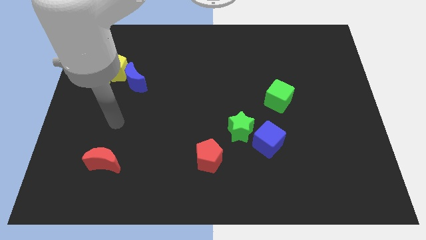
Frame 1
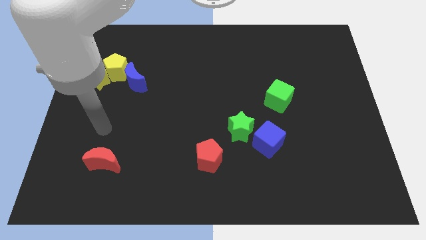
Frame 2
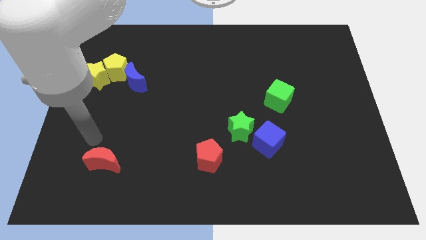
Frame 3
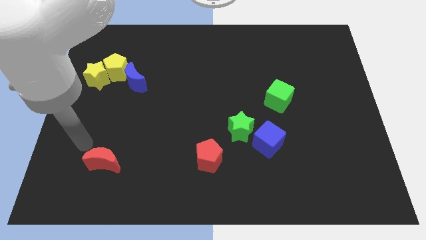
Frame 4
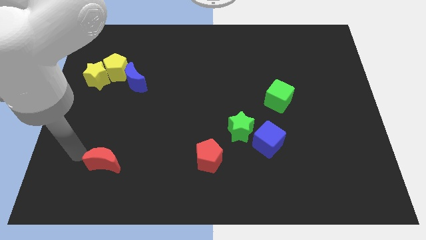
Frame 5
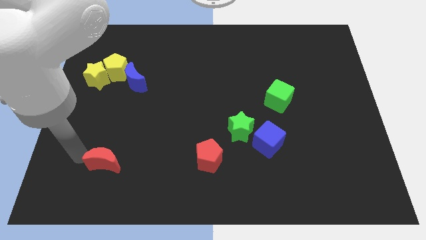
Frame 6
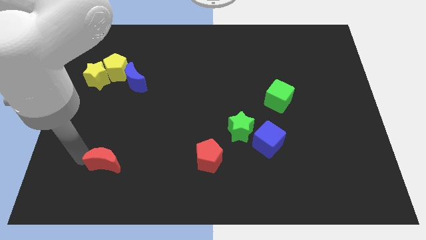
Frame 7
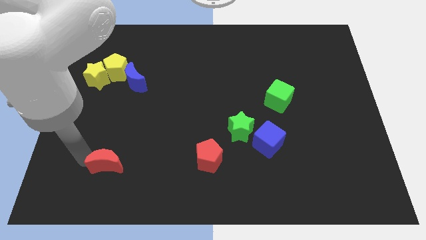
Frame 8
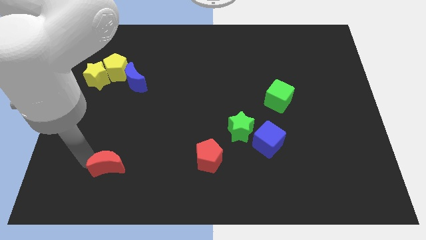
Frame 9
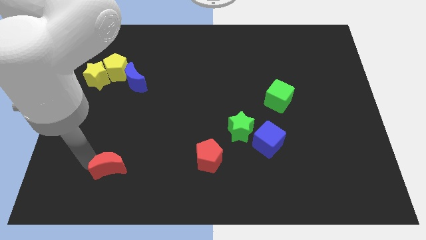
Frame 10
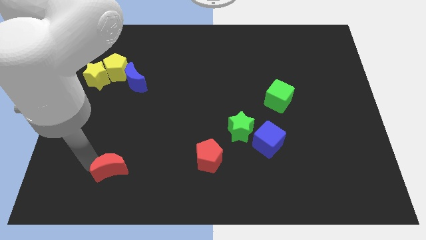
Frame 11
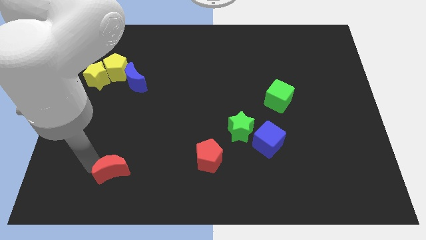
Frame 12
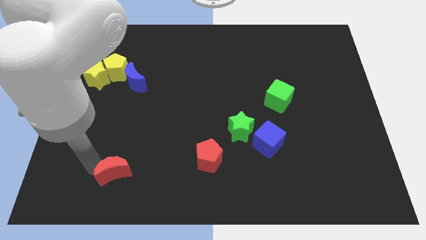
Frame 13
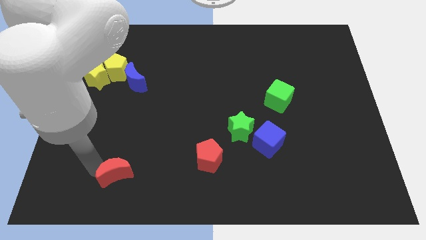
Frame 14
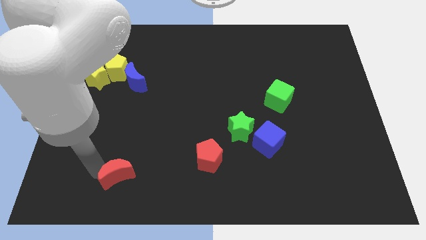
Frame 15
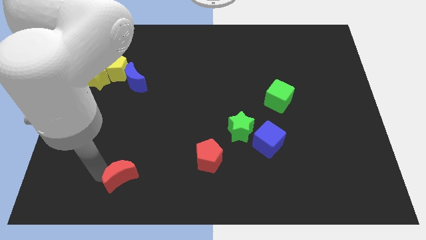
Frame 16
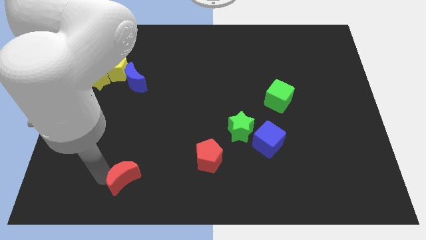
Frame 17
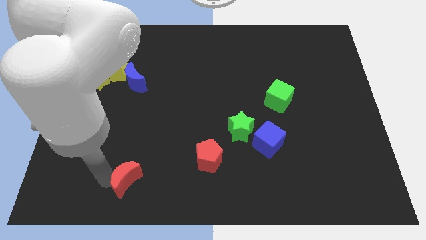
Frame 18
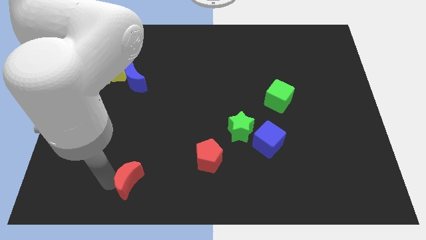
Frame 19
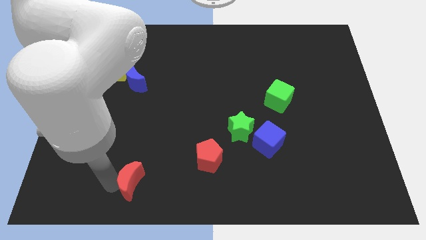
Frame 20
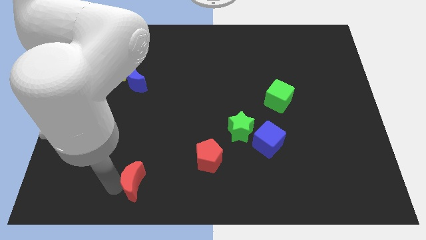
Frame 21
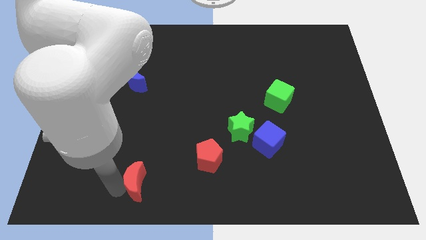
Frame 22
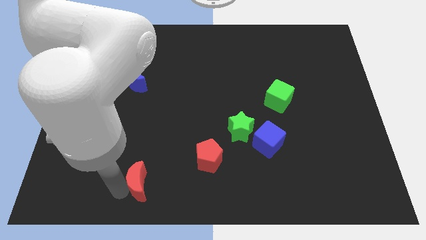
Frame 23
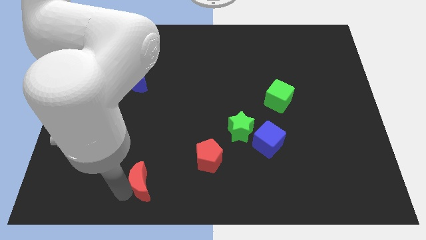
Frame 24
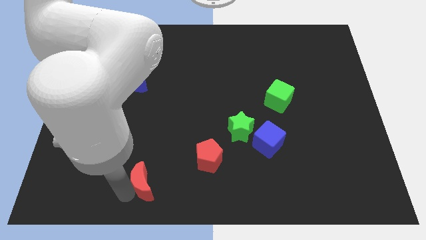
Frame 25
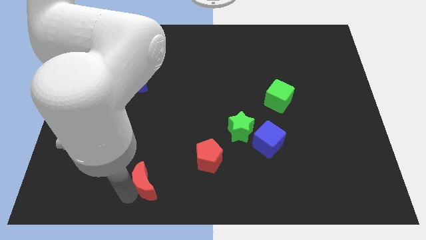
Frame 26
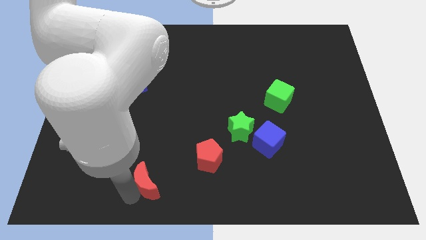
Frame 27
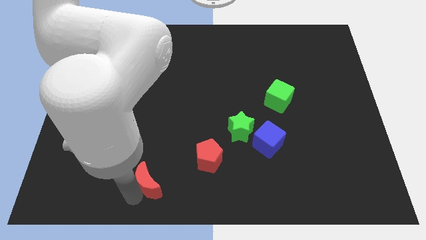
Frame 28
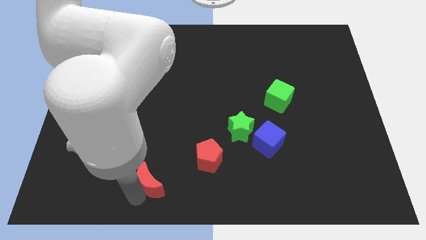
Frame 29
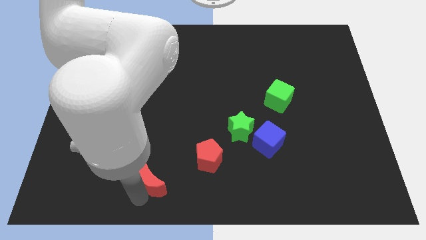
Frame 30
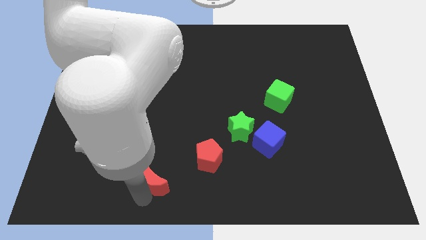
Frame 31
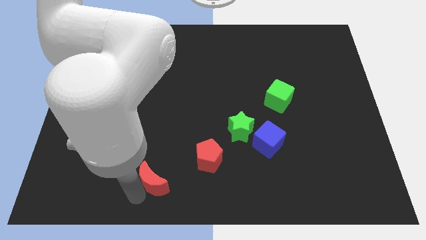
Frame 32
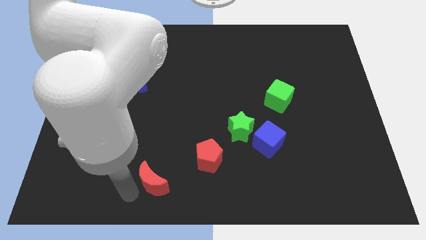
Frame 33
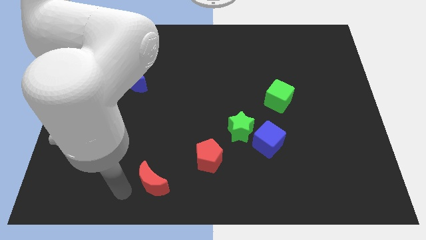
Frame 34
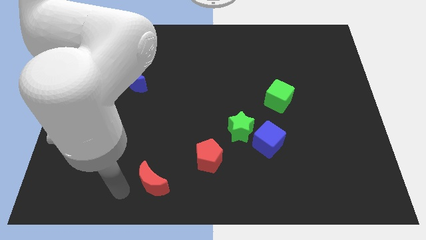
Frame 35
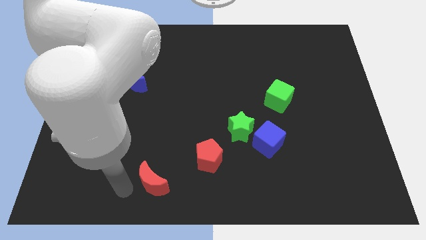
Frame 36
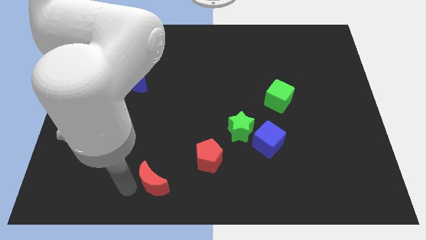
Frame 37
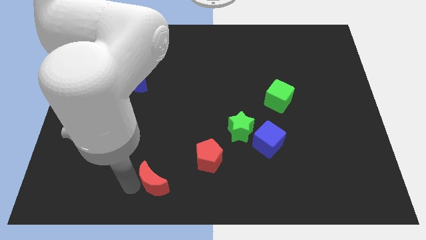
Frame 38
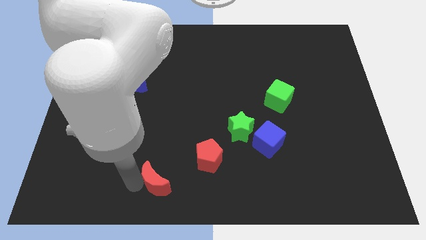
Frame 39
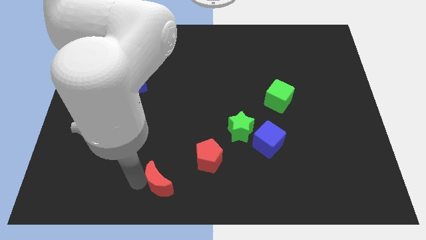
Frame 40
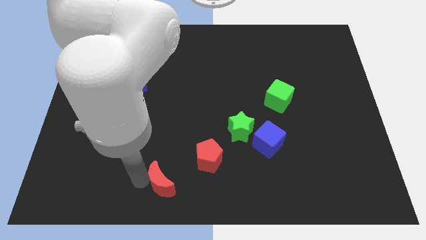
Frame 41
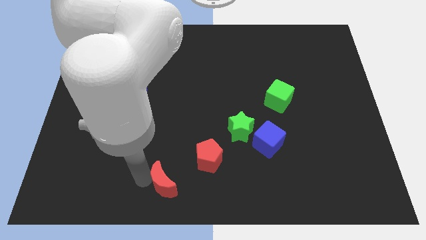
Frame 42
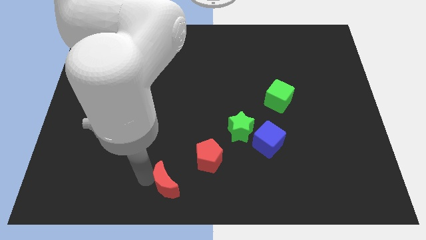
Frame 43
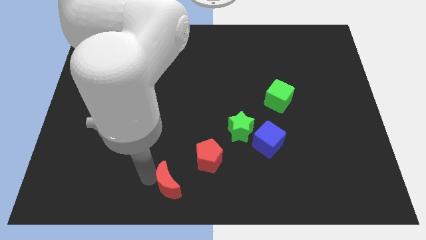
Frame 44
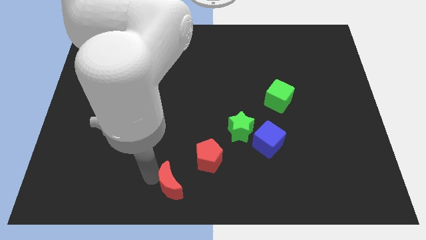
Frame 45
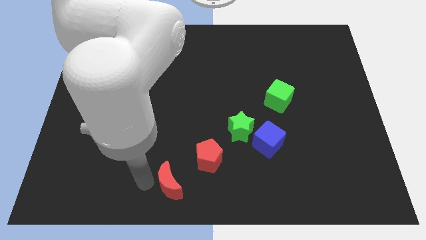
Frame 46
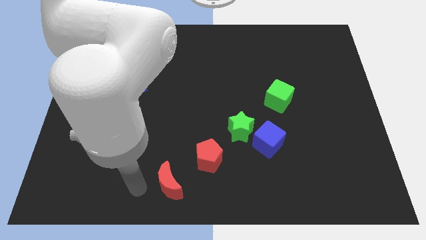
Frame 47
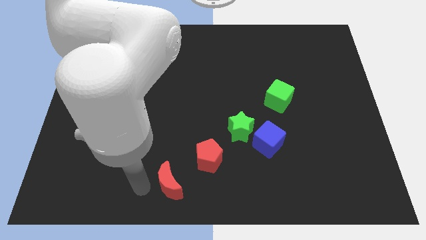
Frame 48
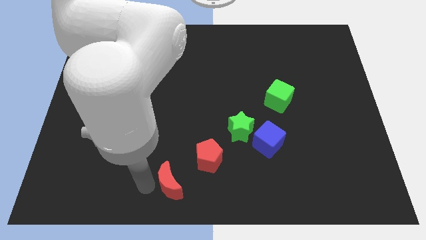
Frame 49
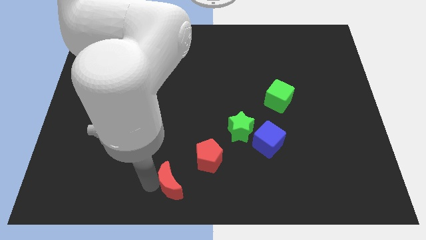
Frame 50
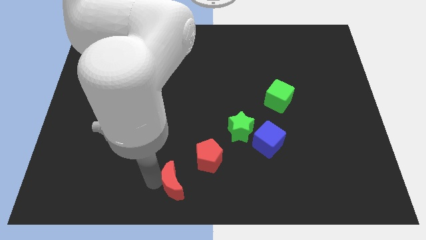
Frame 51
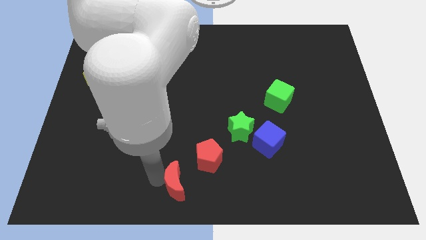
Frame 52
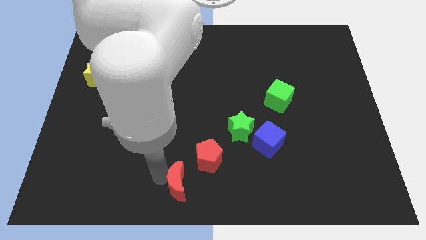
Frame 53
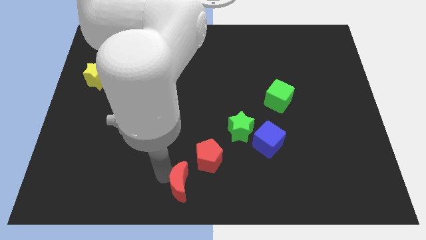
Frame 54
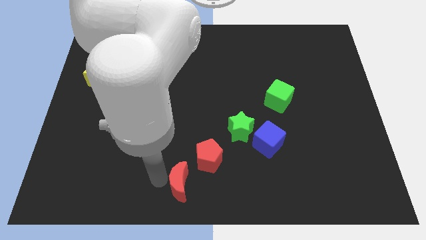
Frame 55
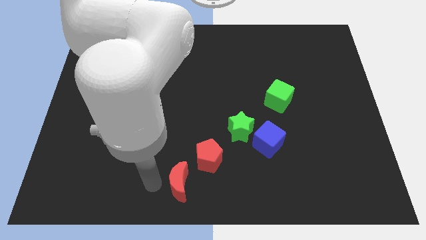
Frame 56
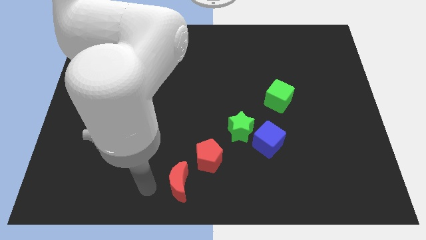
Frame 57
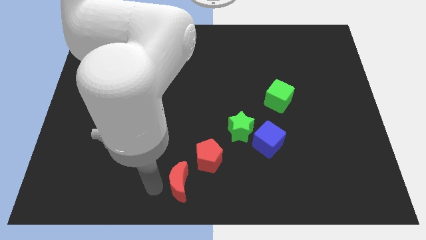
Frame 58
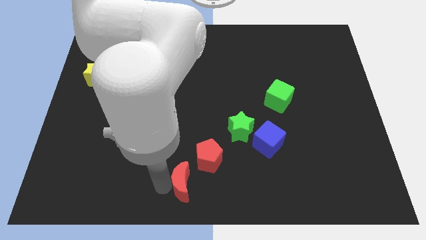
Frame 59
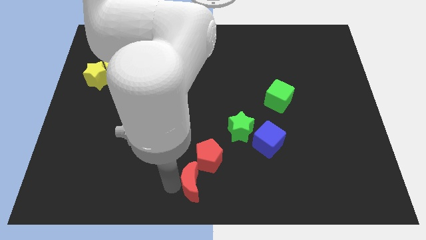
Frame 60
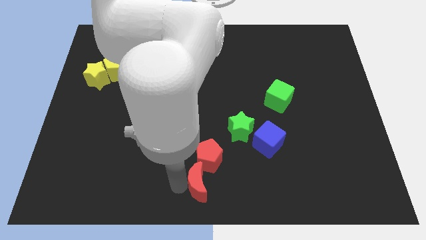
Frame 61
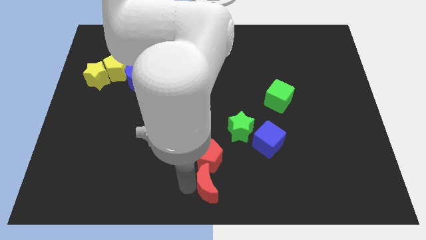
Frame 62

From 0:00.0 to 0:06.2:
move the red moon to the right

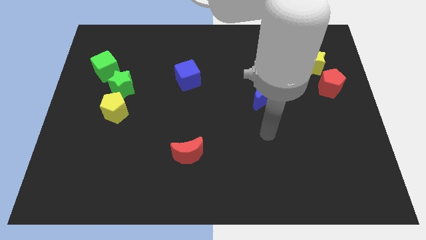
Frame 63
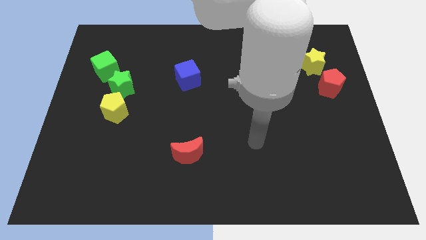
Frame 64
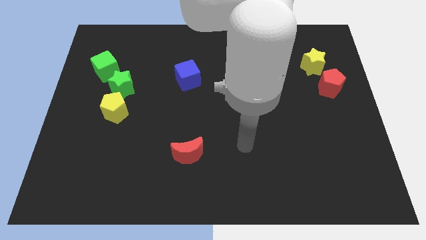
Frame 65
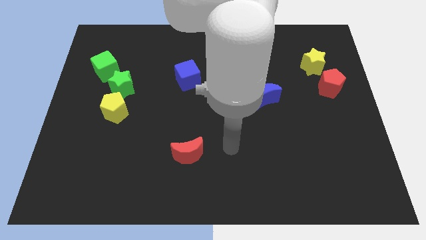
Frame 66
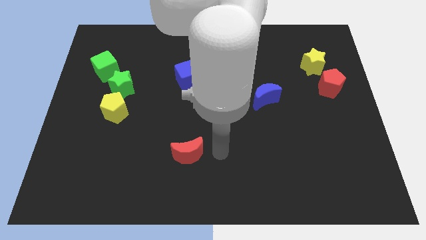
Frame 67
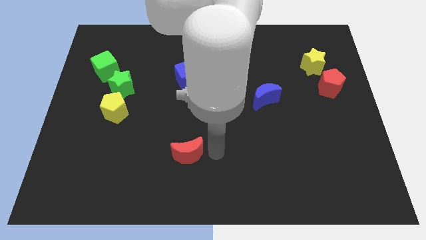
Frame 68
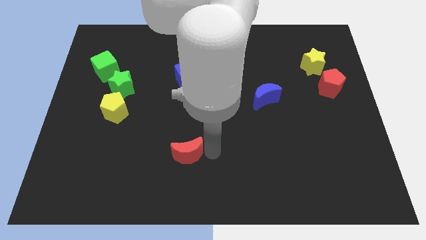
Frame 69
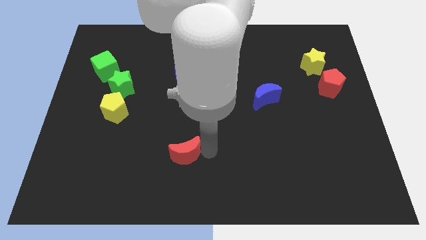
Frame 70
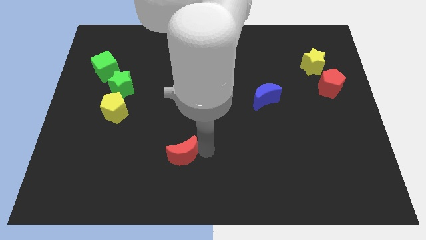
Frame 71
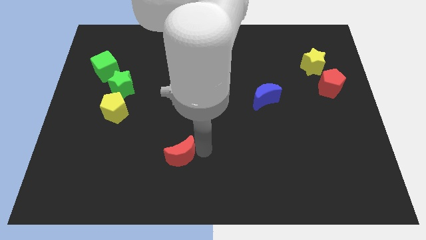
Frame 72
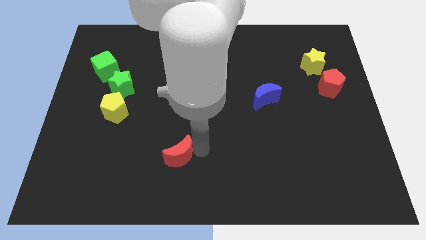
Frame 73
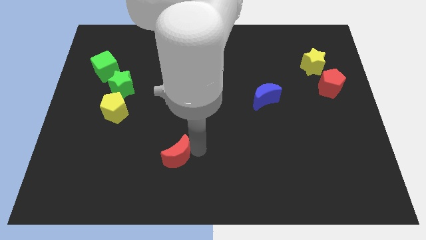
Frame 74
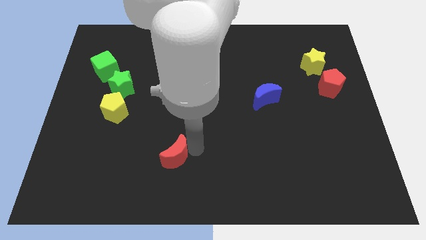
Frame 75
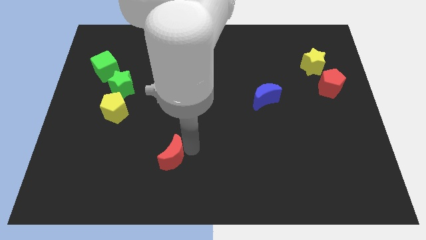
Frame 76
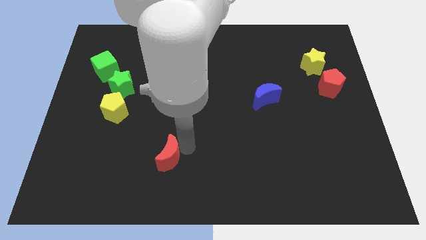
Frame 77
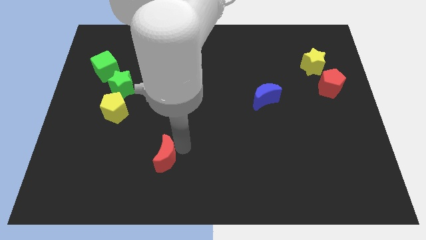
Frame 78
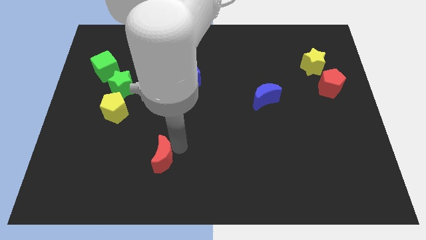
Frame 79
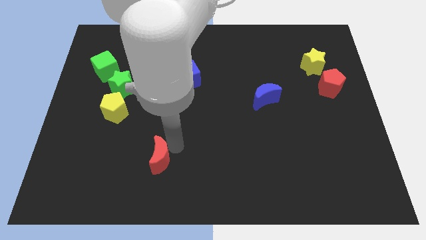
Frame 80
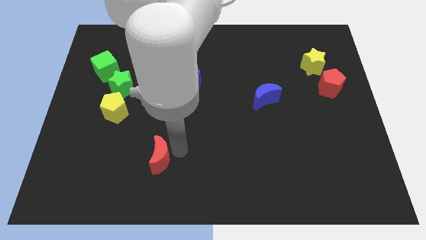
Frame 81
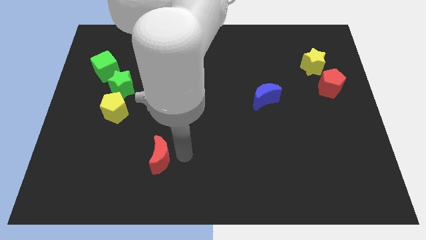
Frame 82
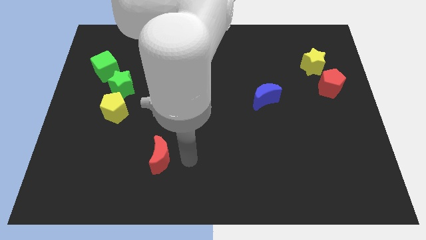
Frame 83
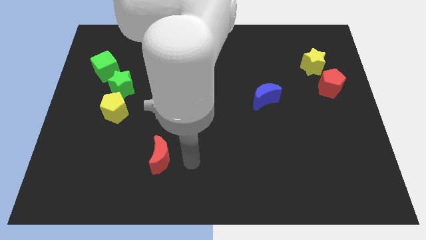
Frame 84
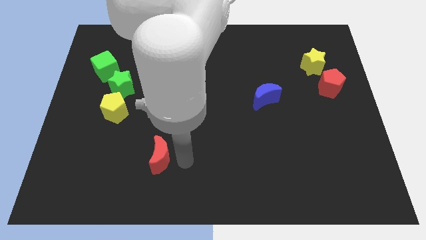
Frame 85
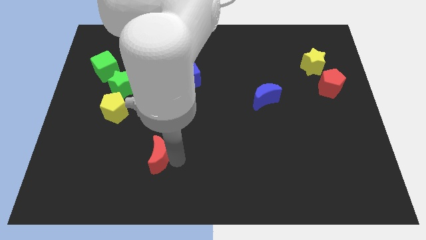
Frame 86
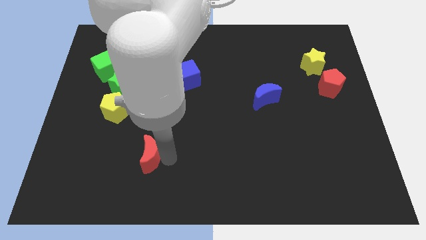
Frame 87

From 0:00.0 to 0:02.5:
slightly push the red moon left
